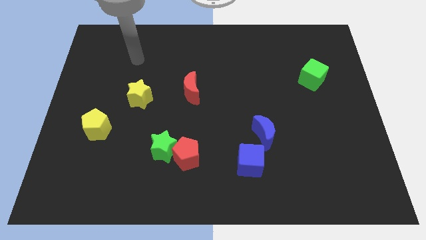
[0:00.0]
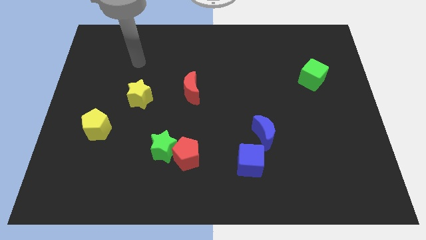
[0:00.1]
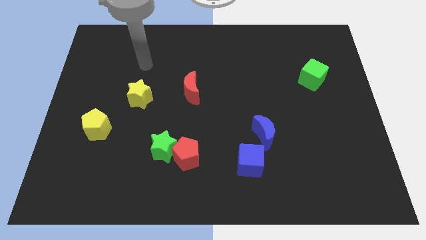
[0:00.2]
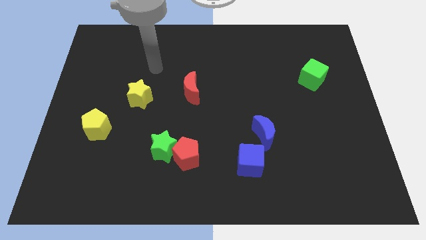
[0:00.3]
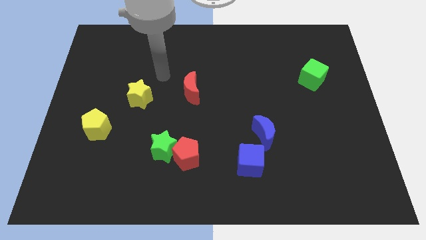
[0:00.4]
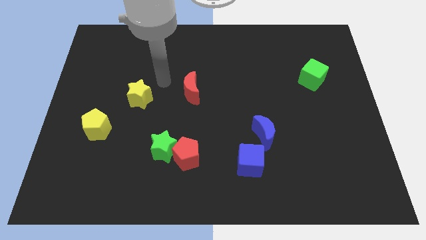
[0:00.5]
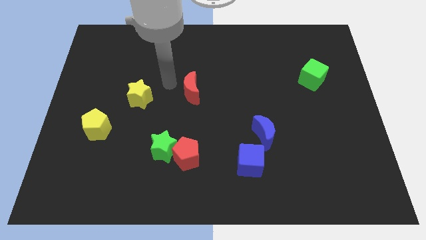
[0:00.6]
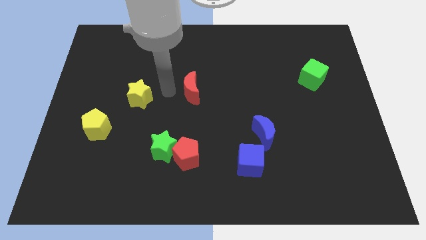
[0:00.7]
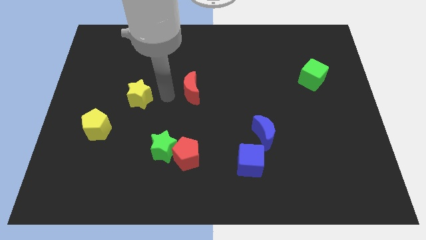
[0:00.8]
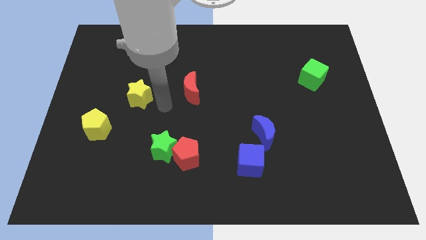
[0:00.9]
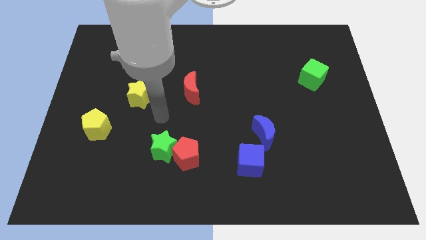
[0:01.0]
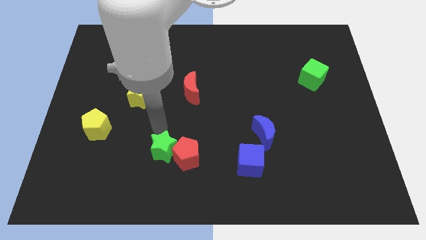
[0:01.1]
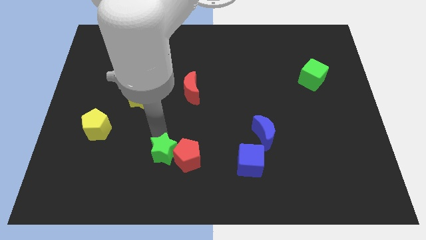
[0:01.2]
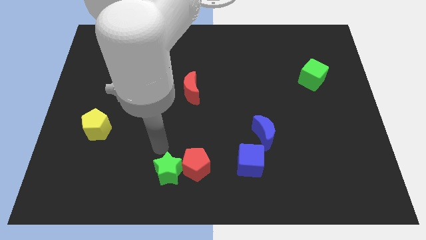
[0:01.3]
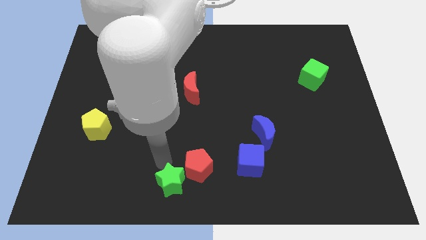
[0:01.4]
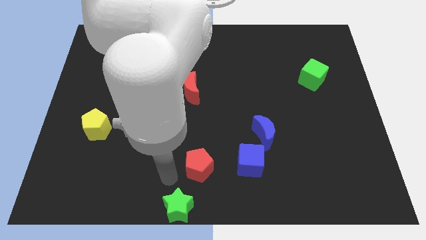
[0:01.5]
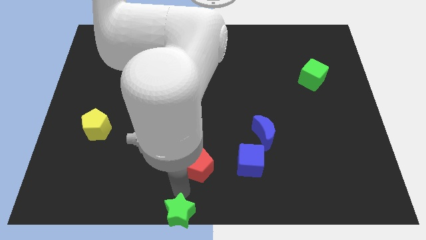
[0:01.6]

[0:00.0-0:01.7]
move the red pentagon away from the green star

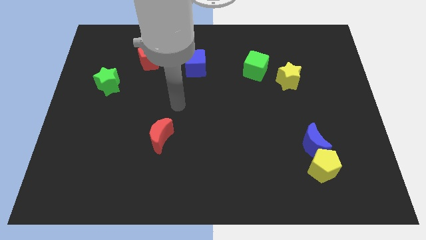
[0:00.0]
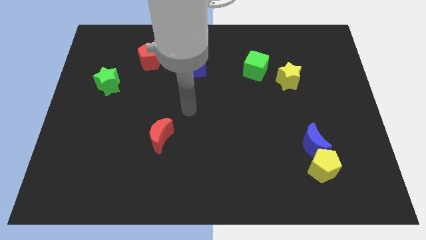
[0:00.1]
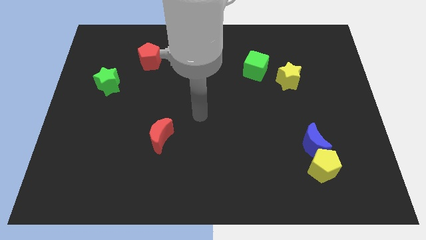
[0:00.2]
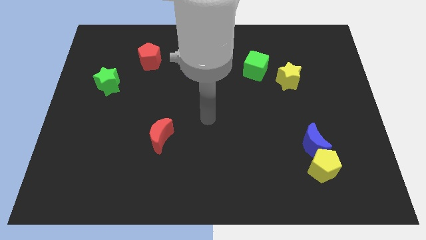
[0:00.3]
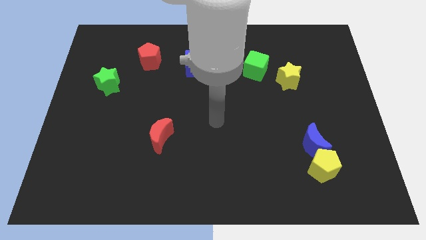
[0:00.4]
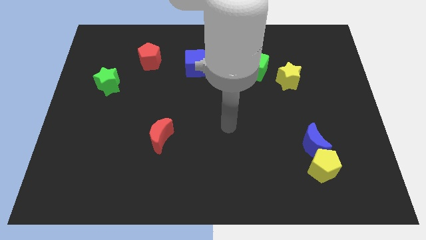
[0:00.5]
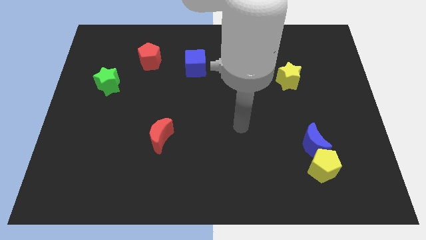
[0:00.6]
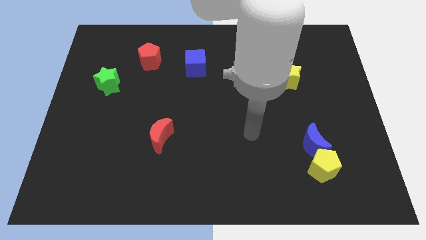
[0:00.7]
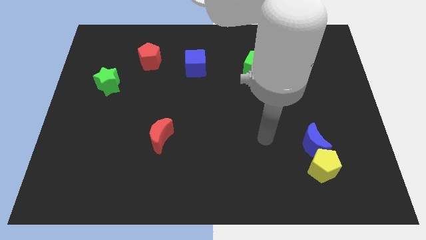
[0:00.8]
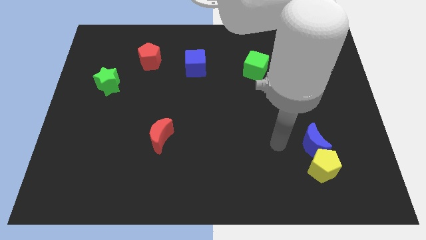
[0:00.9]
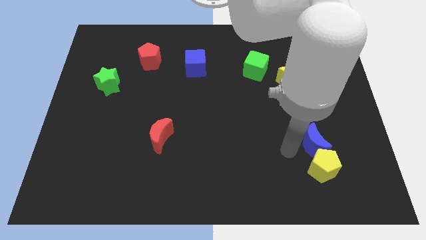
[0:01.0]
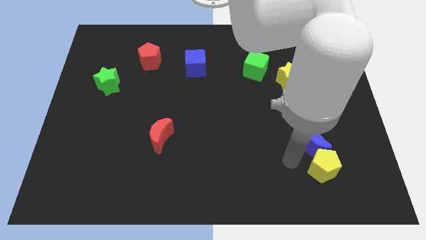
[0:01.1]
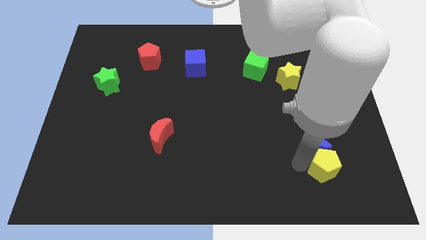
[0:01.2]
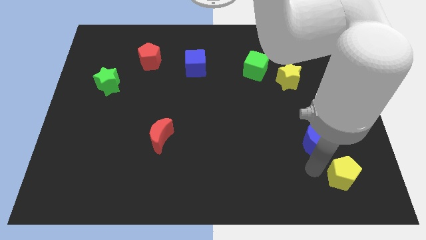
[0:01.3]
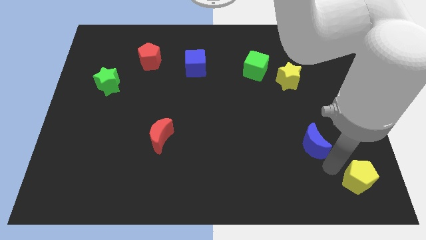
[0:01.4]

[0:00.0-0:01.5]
pull the blue moon apart from the yellow pentagon

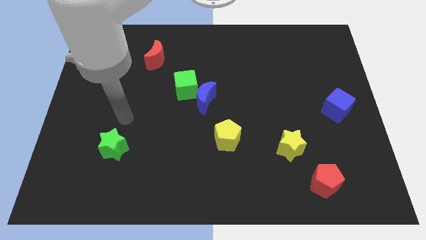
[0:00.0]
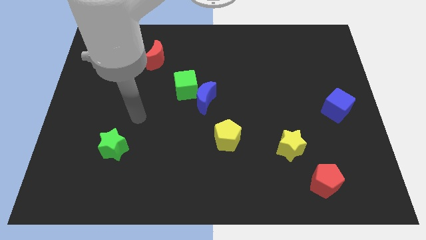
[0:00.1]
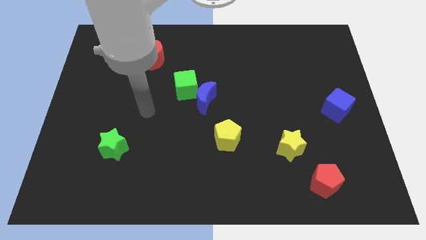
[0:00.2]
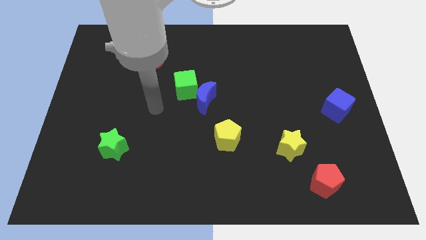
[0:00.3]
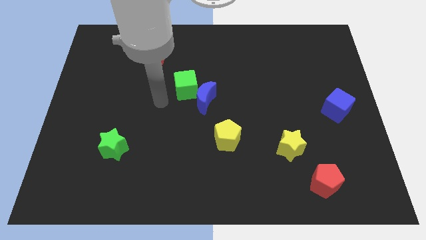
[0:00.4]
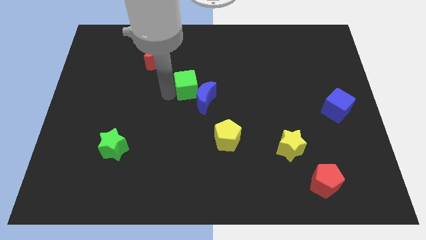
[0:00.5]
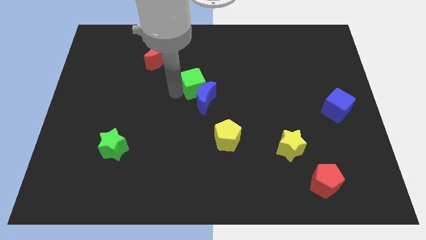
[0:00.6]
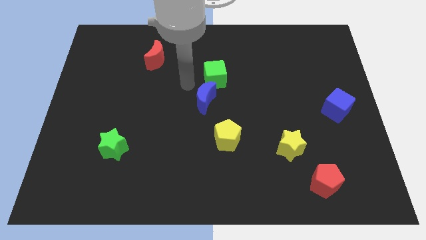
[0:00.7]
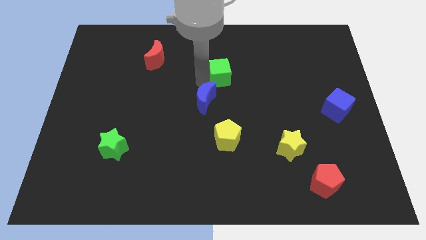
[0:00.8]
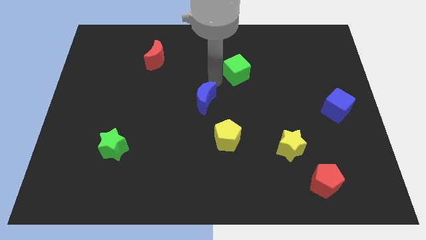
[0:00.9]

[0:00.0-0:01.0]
move the blue moon away from the green cube

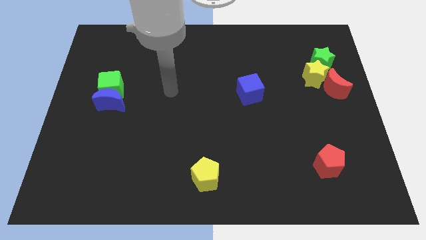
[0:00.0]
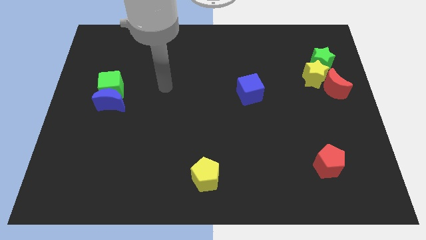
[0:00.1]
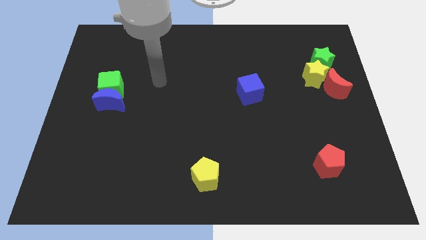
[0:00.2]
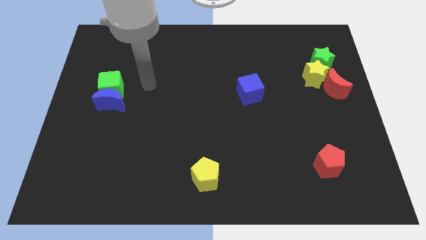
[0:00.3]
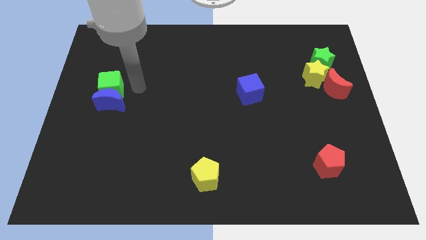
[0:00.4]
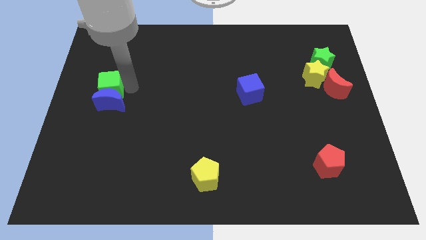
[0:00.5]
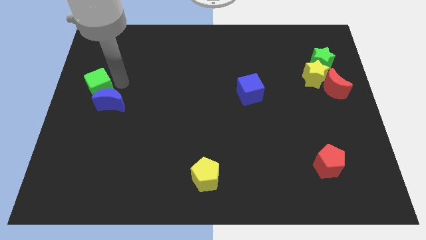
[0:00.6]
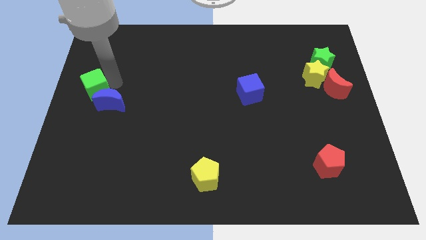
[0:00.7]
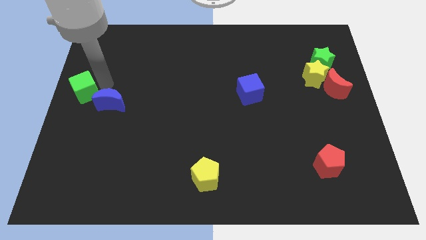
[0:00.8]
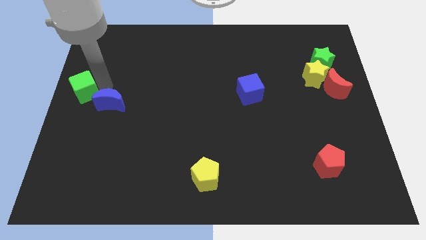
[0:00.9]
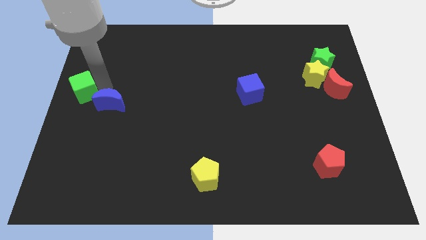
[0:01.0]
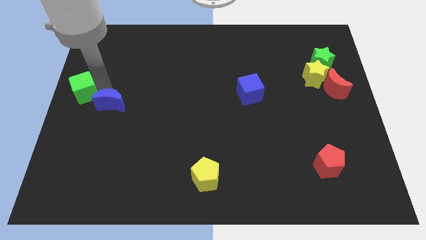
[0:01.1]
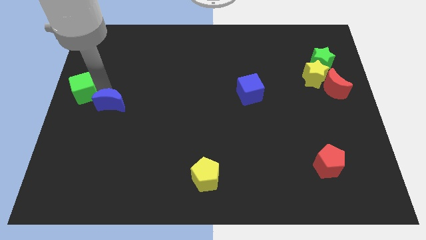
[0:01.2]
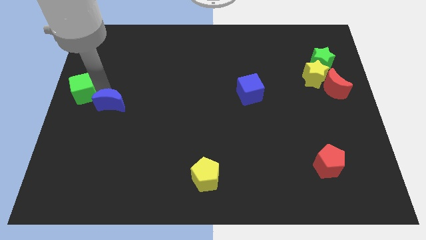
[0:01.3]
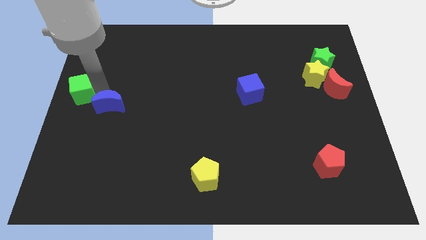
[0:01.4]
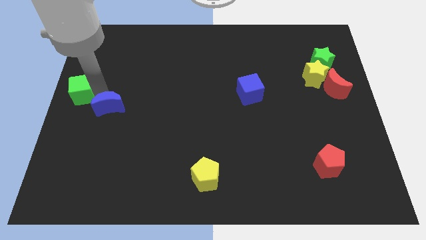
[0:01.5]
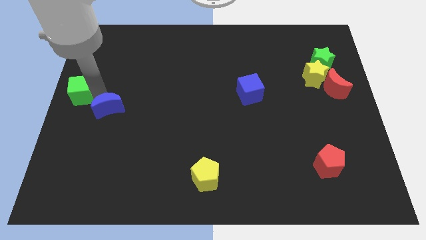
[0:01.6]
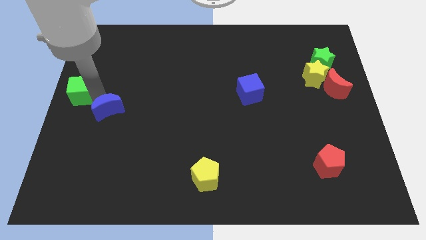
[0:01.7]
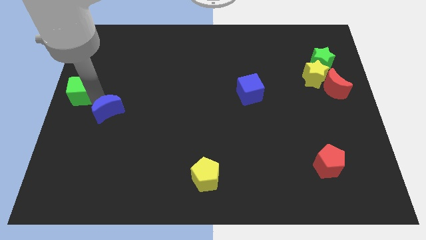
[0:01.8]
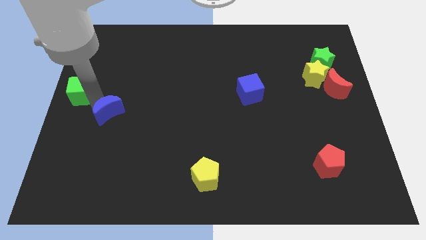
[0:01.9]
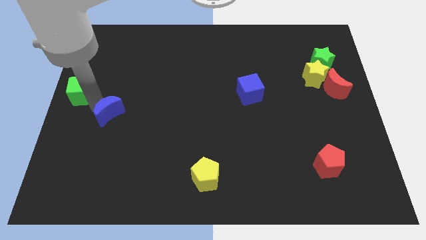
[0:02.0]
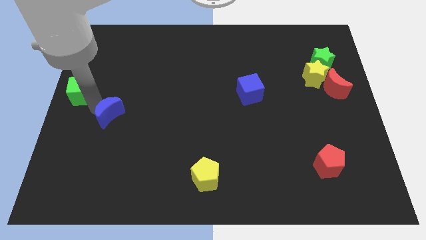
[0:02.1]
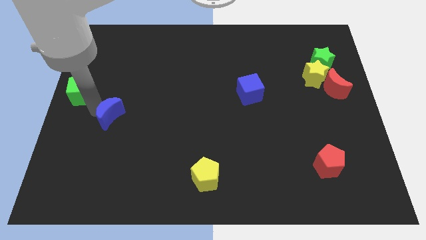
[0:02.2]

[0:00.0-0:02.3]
separate the blue moon from the green cube

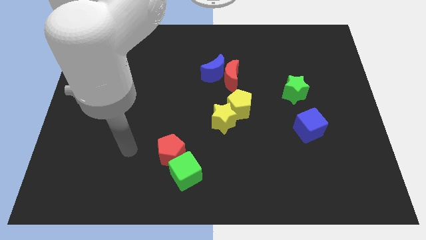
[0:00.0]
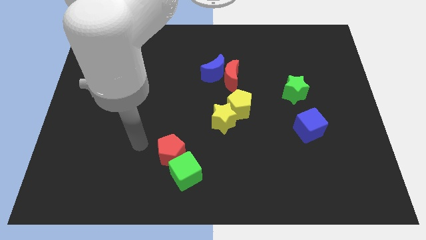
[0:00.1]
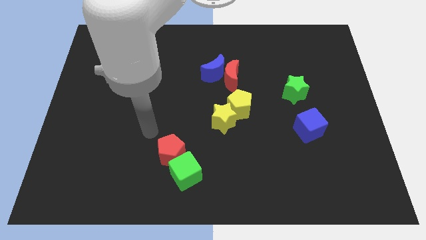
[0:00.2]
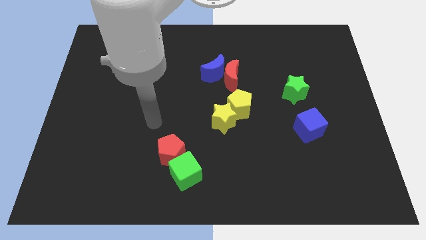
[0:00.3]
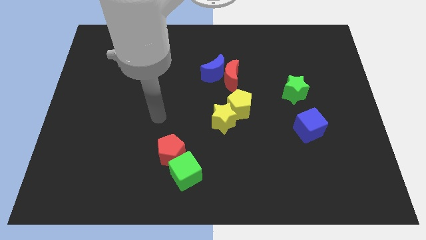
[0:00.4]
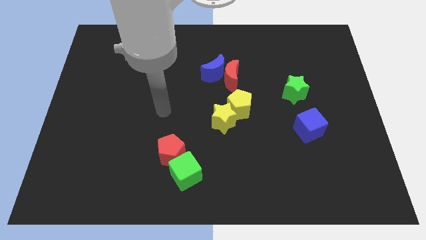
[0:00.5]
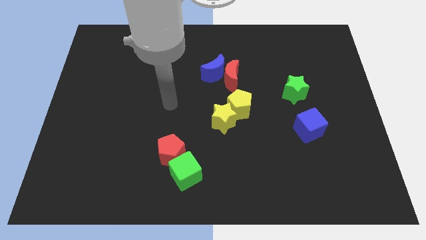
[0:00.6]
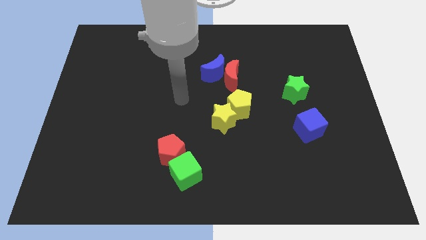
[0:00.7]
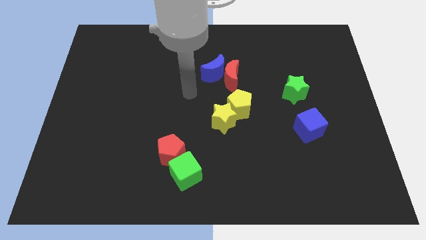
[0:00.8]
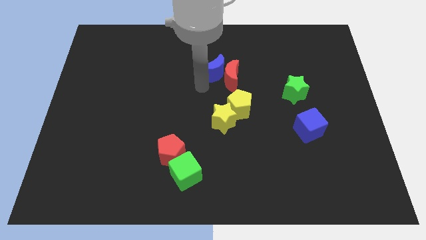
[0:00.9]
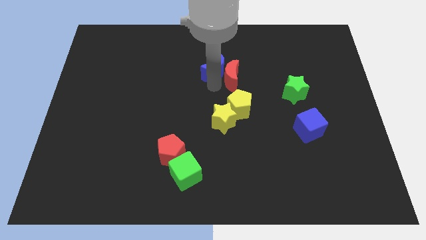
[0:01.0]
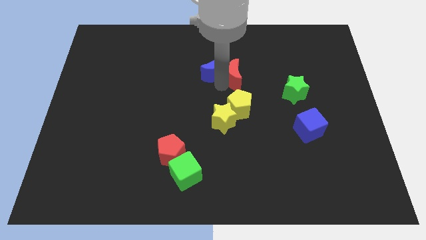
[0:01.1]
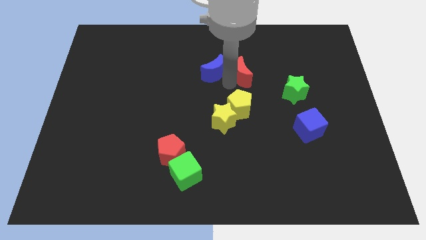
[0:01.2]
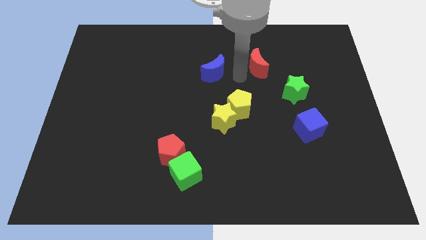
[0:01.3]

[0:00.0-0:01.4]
pull the blue moon apart from the red moon

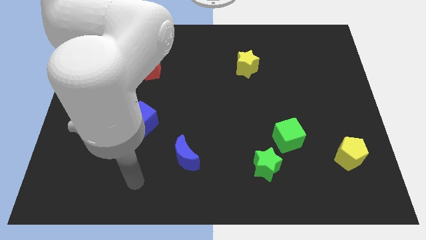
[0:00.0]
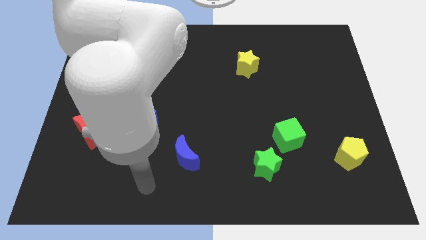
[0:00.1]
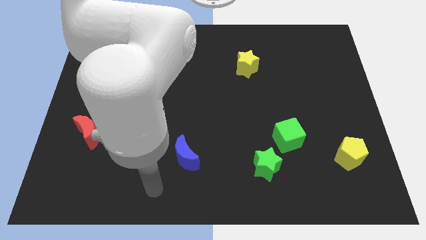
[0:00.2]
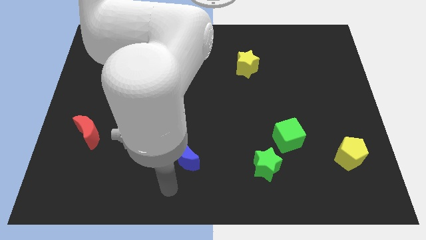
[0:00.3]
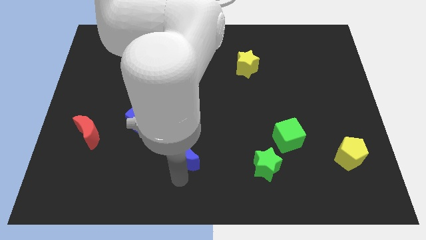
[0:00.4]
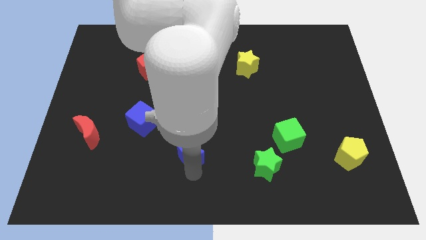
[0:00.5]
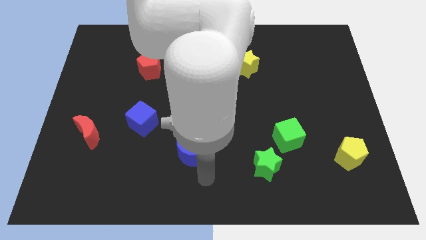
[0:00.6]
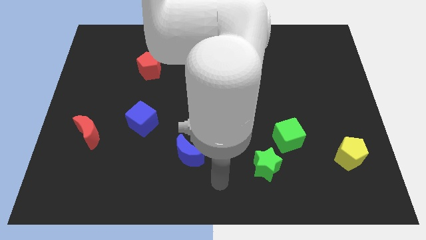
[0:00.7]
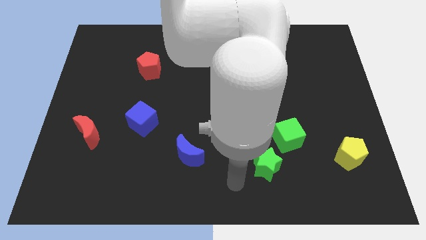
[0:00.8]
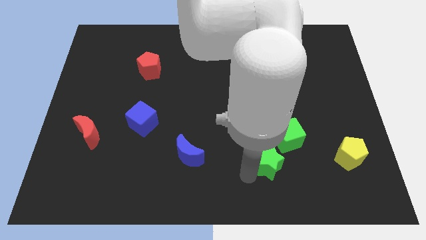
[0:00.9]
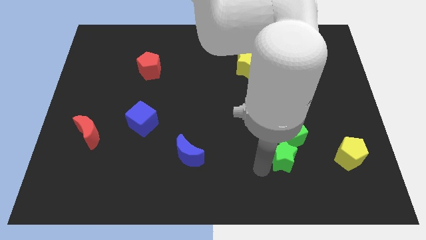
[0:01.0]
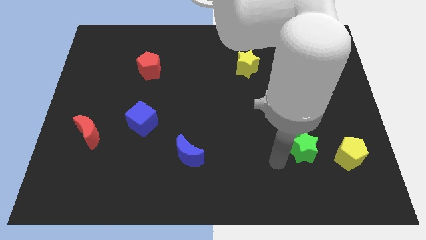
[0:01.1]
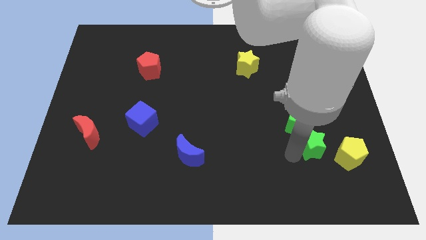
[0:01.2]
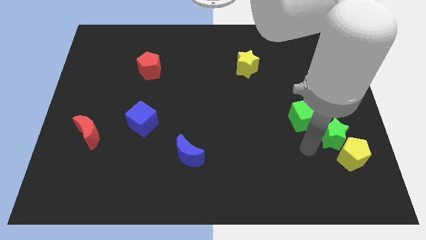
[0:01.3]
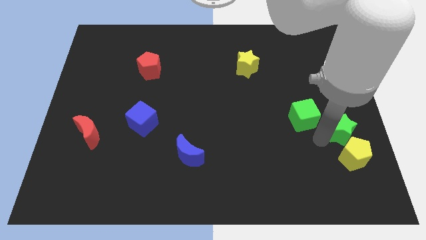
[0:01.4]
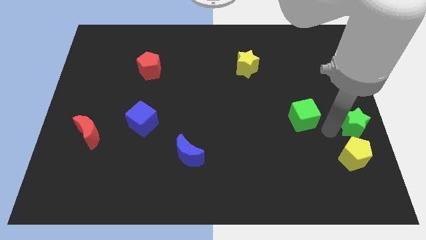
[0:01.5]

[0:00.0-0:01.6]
separate the green cube from the green star
